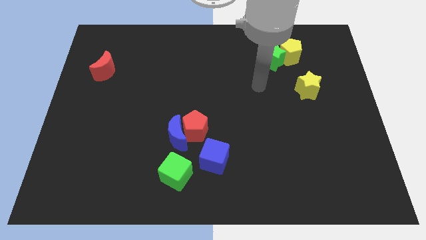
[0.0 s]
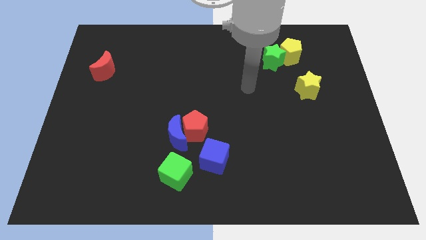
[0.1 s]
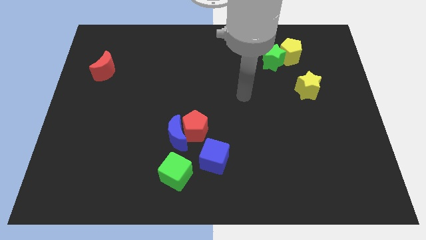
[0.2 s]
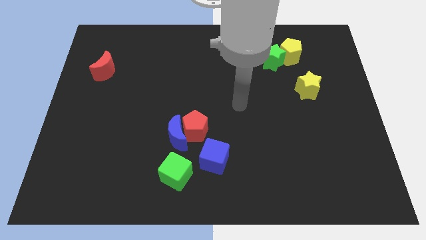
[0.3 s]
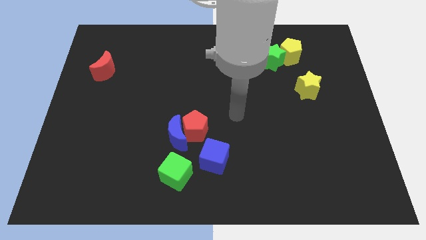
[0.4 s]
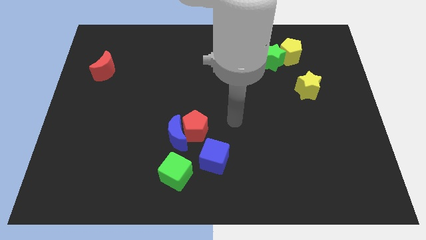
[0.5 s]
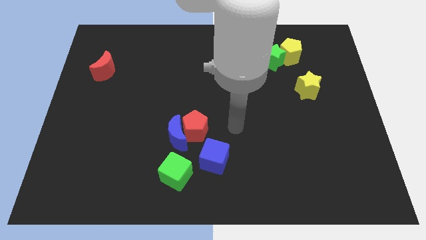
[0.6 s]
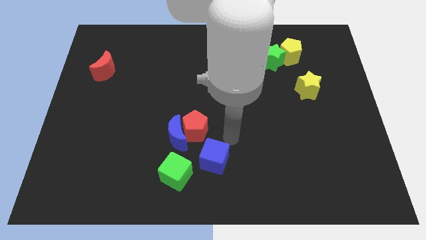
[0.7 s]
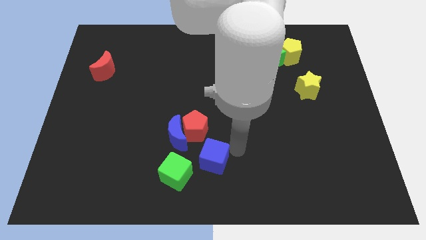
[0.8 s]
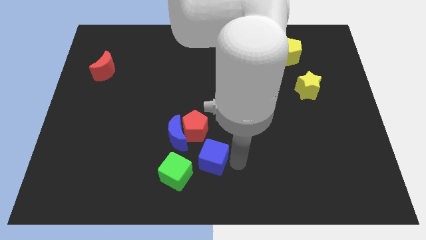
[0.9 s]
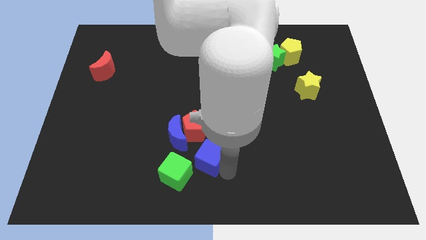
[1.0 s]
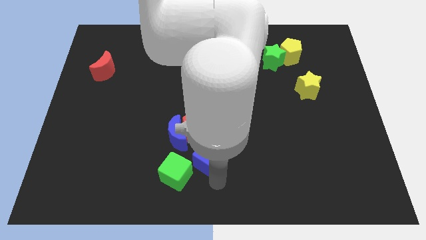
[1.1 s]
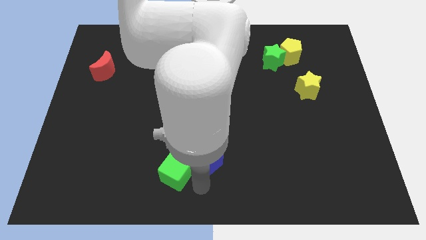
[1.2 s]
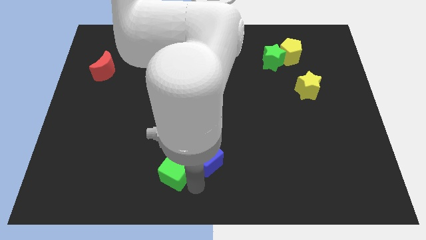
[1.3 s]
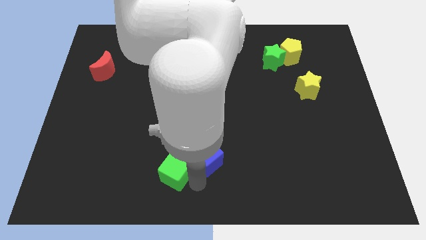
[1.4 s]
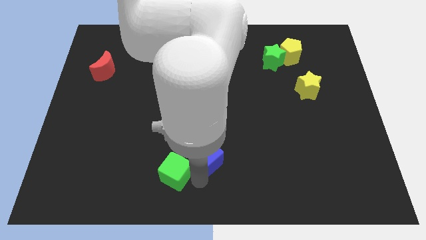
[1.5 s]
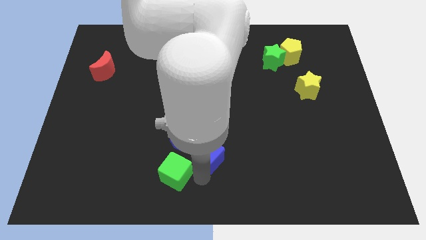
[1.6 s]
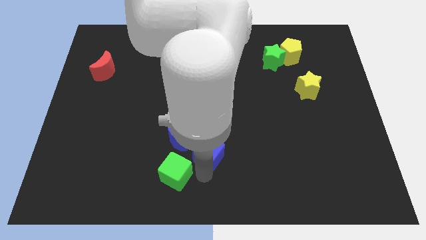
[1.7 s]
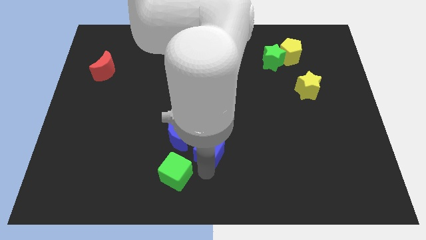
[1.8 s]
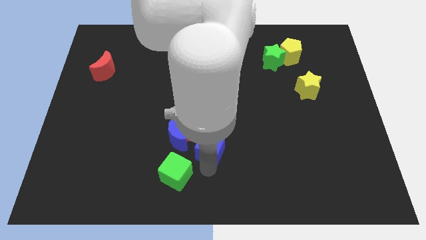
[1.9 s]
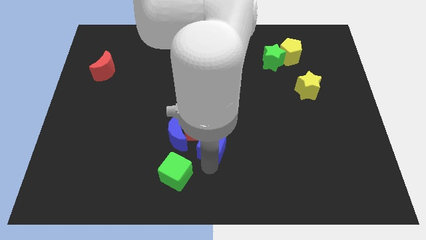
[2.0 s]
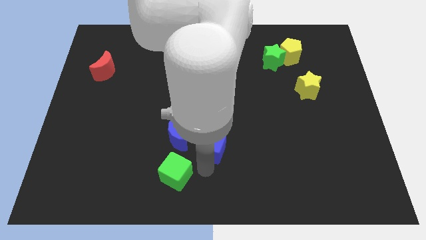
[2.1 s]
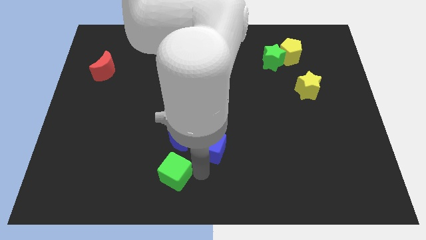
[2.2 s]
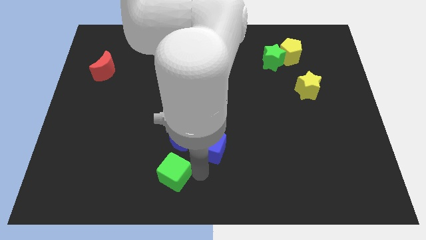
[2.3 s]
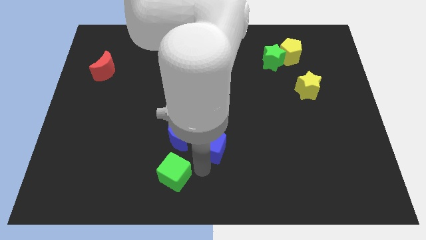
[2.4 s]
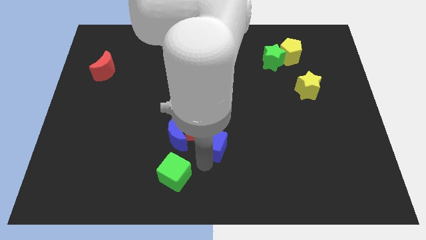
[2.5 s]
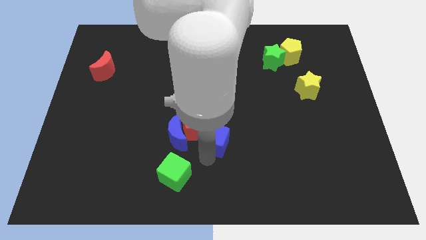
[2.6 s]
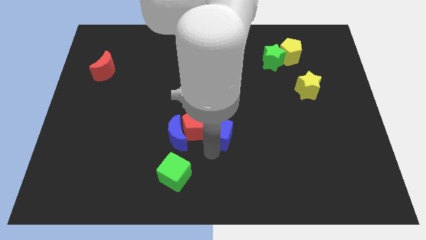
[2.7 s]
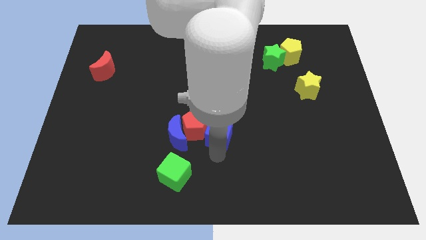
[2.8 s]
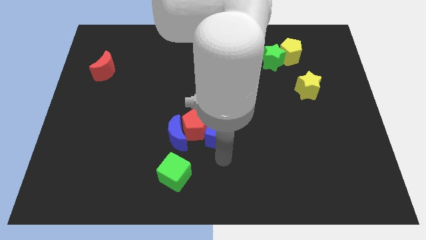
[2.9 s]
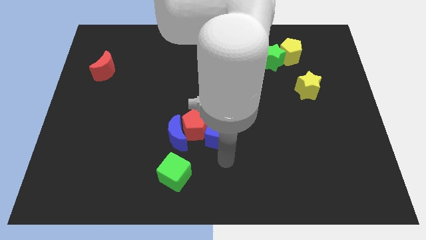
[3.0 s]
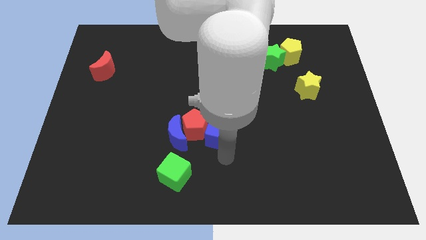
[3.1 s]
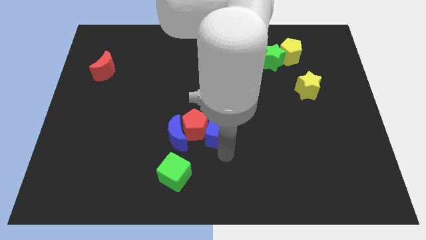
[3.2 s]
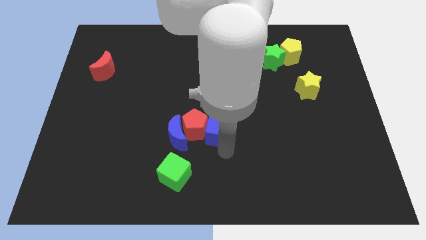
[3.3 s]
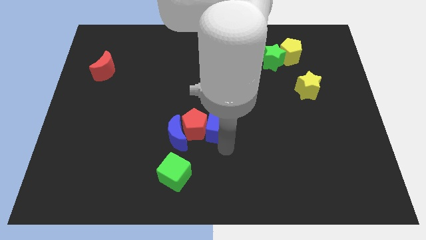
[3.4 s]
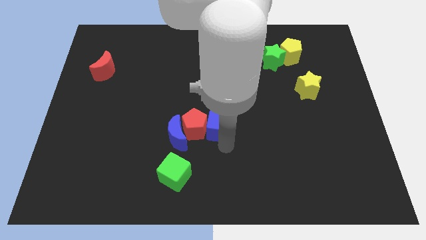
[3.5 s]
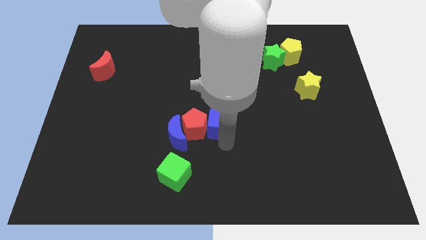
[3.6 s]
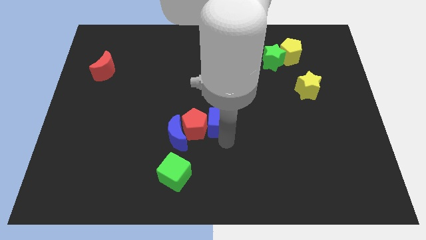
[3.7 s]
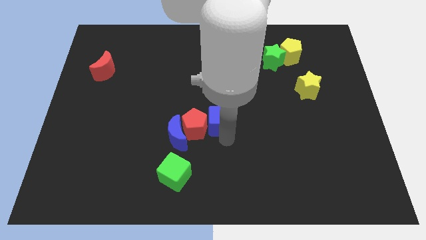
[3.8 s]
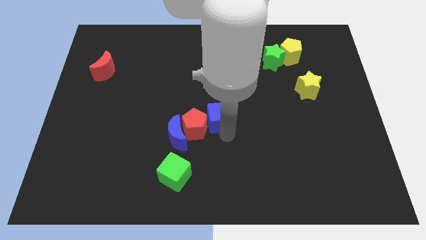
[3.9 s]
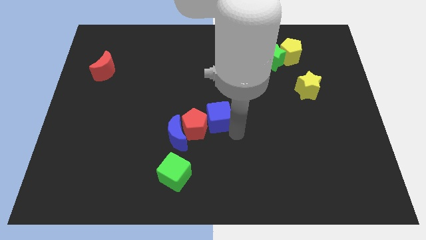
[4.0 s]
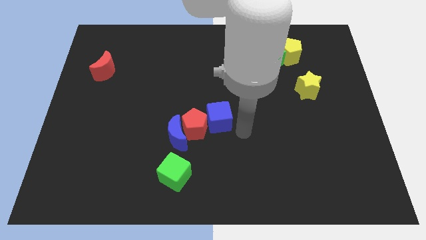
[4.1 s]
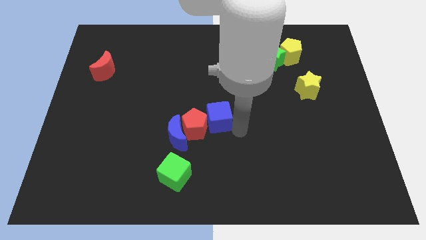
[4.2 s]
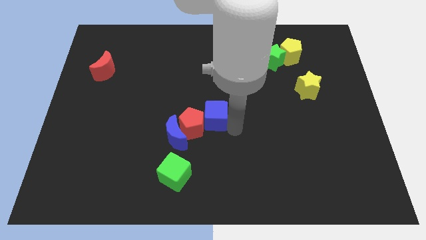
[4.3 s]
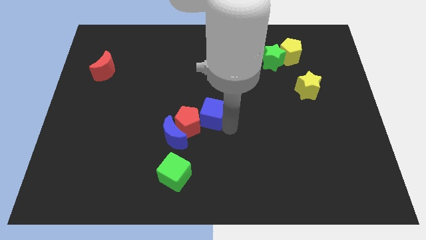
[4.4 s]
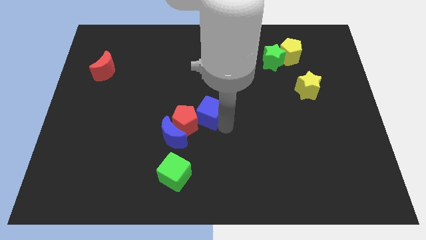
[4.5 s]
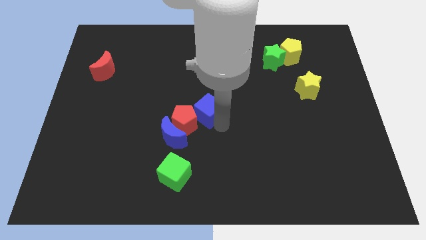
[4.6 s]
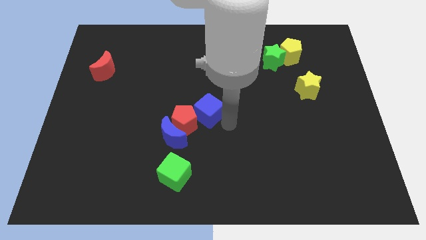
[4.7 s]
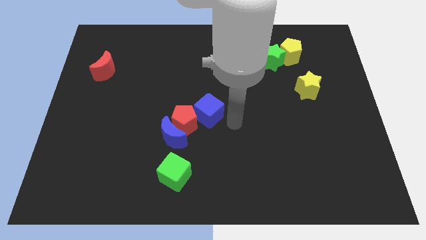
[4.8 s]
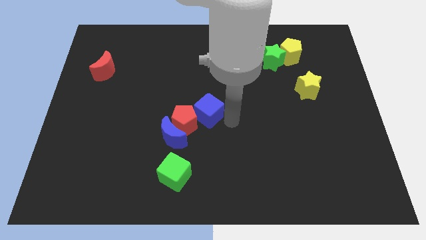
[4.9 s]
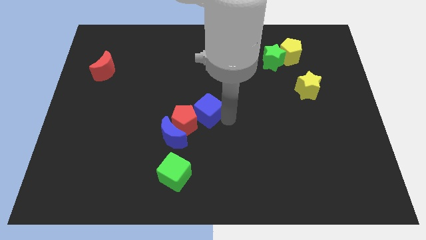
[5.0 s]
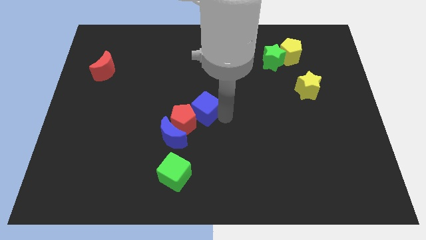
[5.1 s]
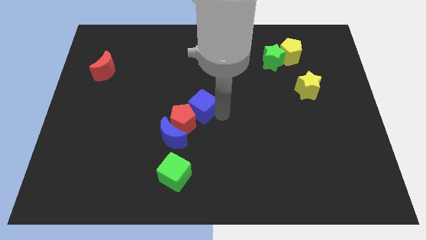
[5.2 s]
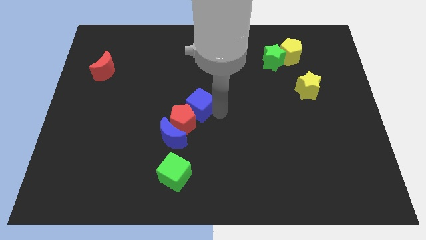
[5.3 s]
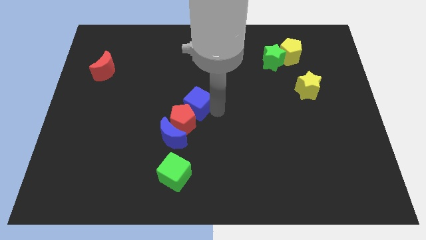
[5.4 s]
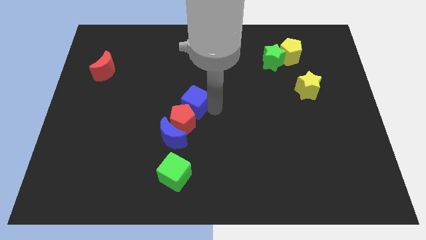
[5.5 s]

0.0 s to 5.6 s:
push the blue cube to the top of the blue moon

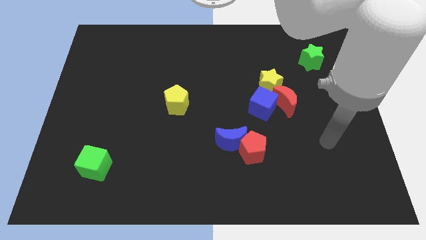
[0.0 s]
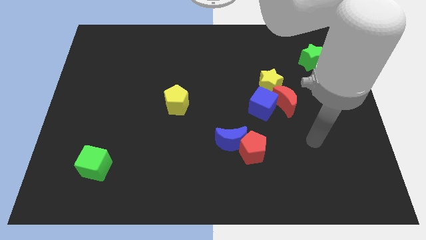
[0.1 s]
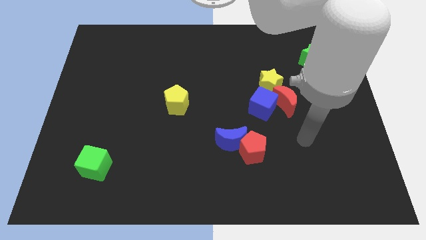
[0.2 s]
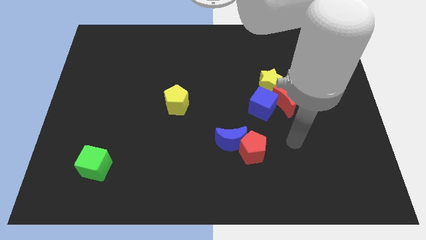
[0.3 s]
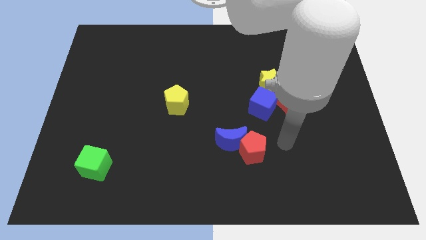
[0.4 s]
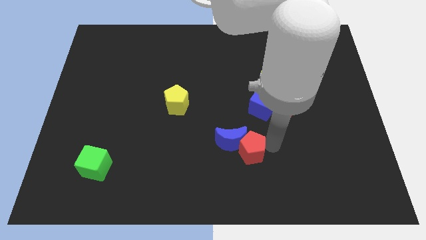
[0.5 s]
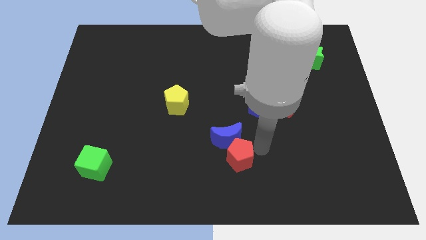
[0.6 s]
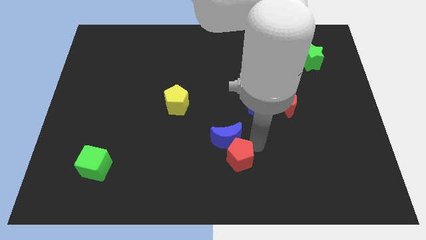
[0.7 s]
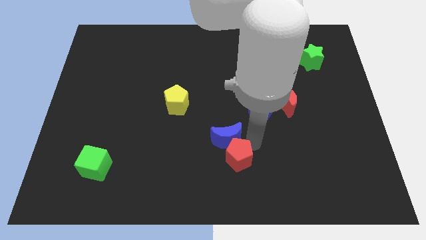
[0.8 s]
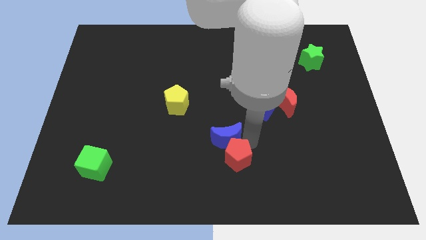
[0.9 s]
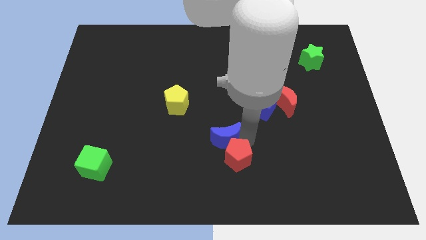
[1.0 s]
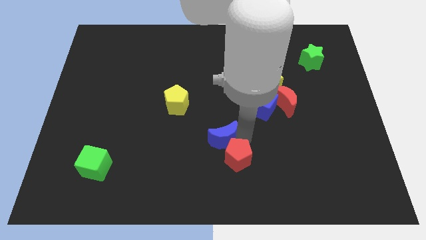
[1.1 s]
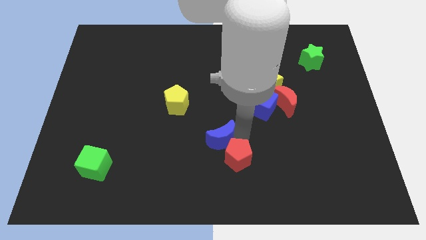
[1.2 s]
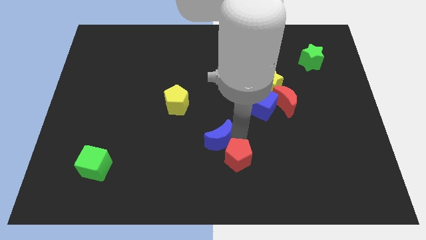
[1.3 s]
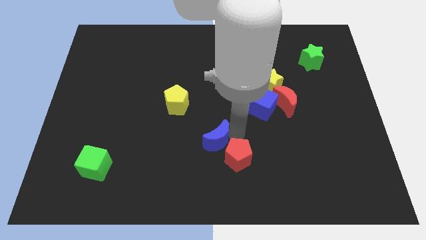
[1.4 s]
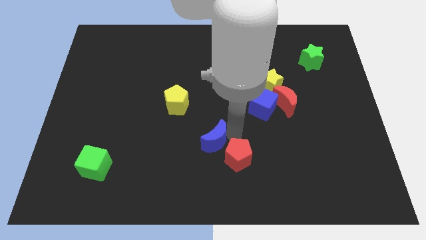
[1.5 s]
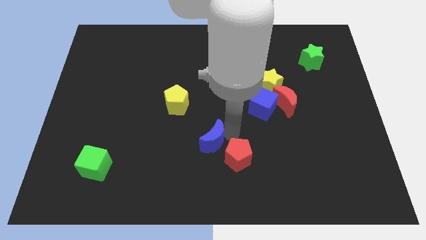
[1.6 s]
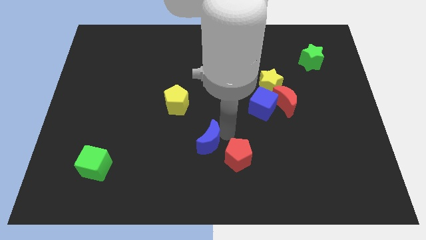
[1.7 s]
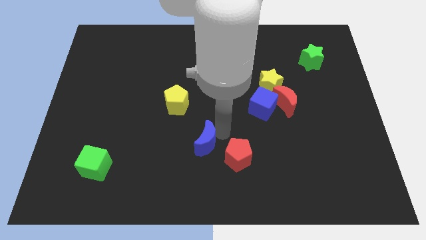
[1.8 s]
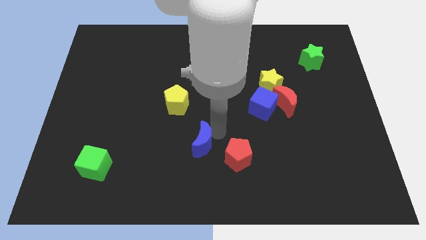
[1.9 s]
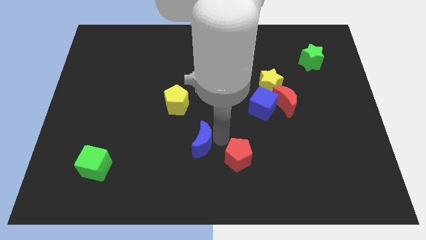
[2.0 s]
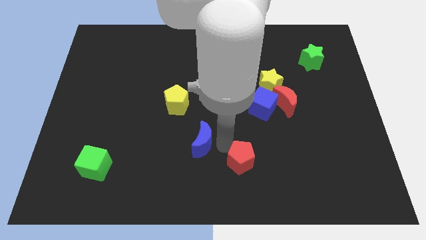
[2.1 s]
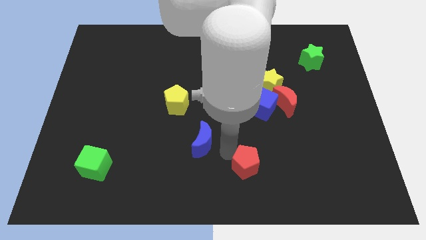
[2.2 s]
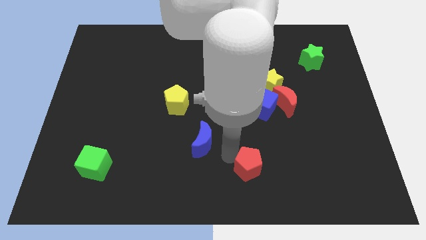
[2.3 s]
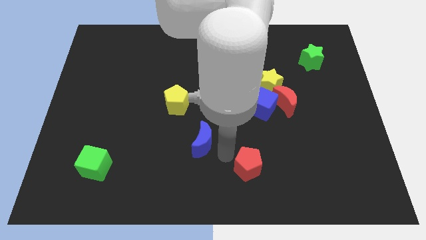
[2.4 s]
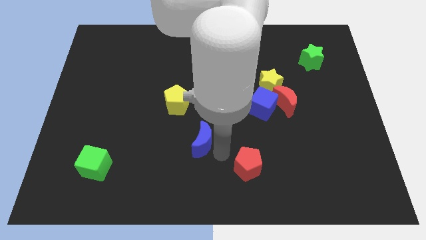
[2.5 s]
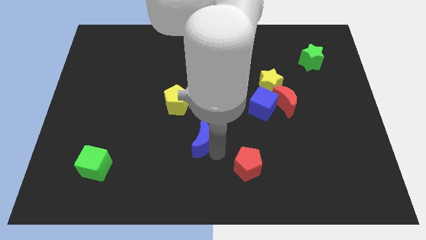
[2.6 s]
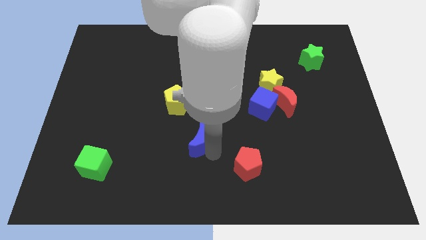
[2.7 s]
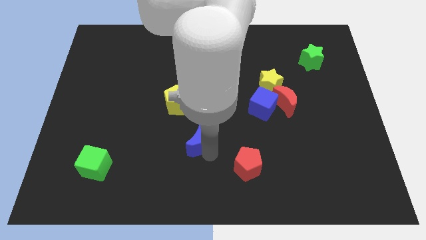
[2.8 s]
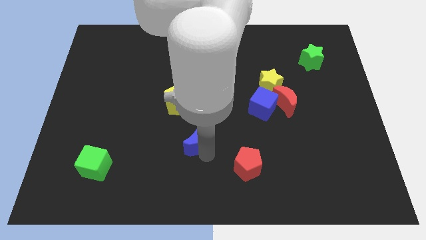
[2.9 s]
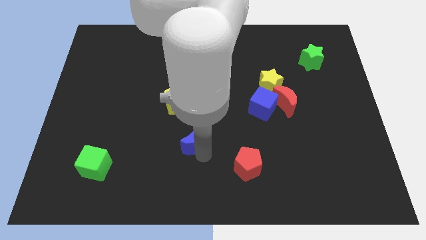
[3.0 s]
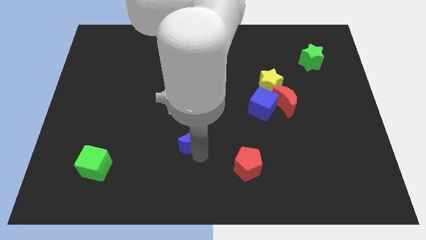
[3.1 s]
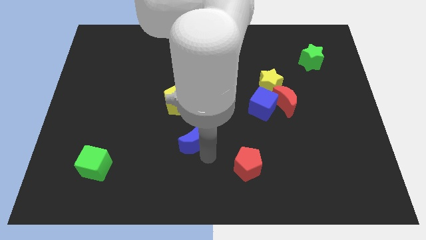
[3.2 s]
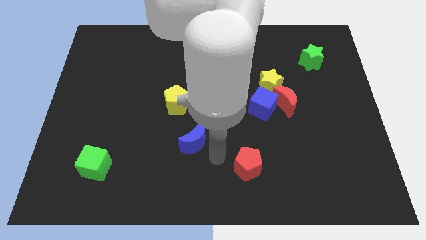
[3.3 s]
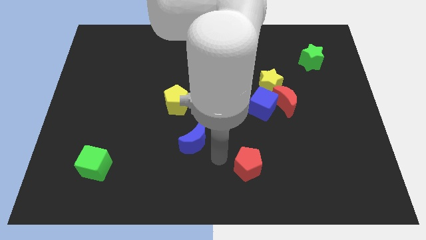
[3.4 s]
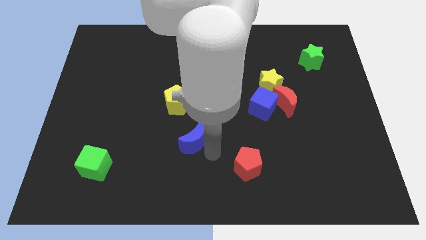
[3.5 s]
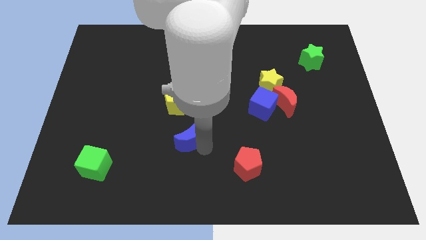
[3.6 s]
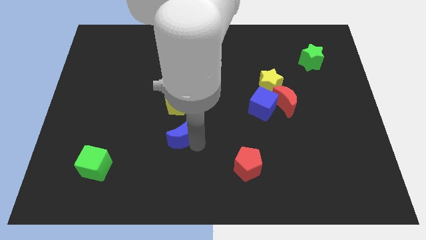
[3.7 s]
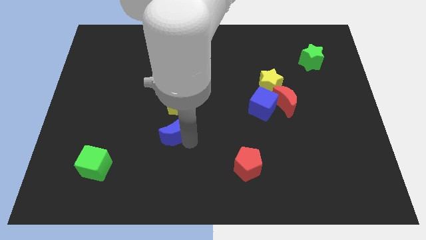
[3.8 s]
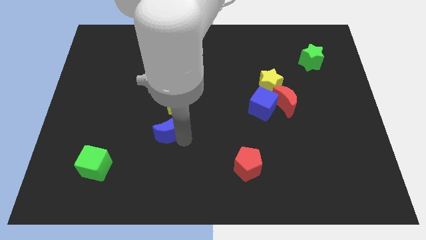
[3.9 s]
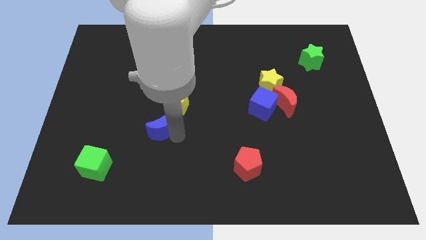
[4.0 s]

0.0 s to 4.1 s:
push the blue moon to the bottom left of the yellow pentagon
